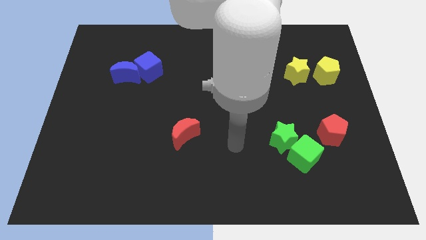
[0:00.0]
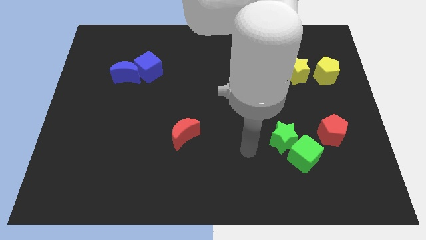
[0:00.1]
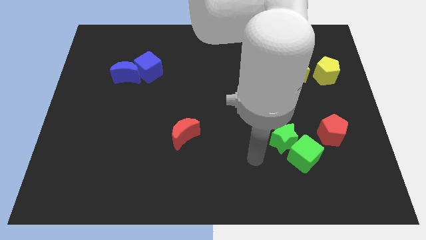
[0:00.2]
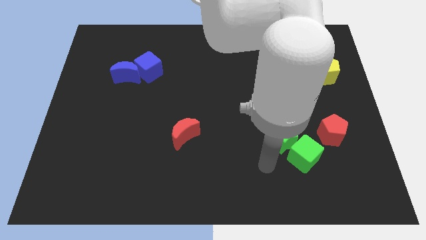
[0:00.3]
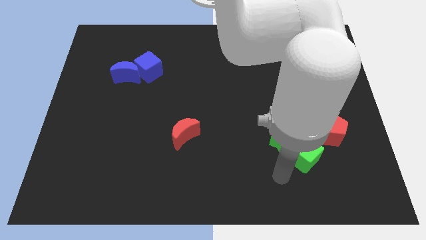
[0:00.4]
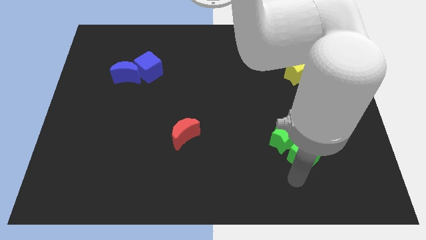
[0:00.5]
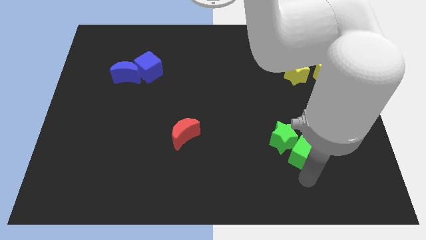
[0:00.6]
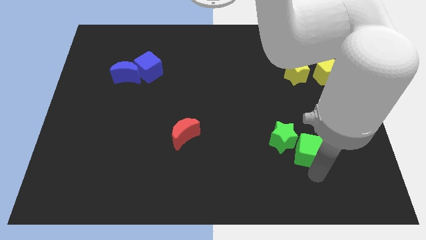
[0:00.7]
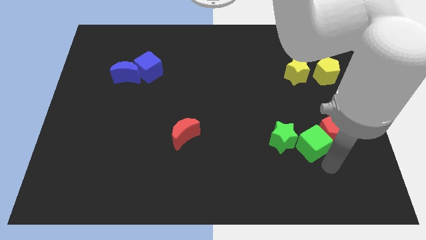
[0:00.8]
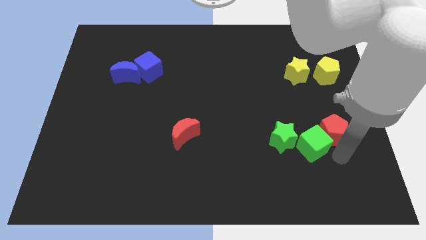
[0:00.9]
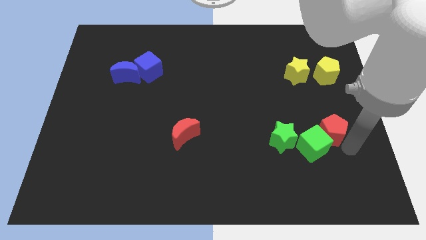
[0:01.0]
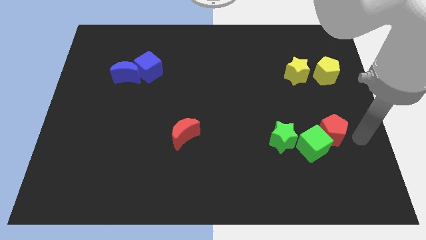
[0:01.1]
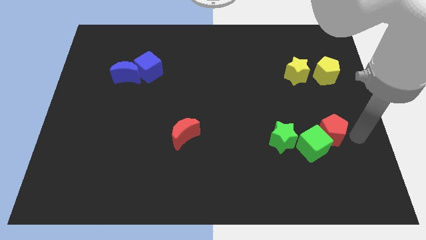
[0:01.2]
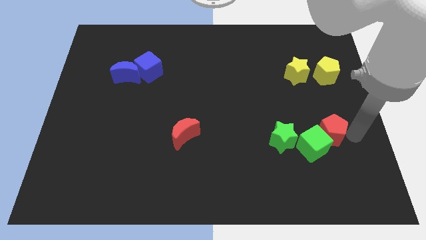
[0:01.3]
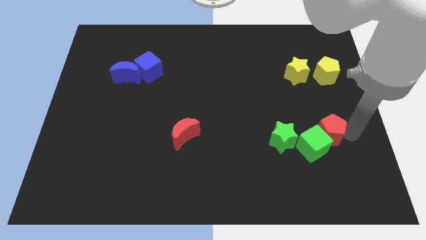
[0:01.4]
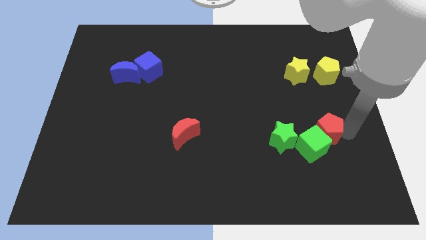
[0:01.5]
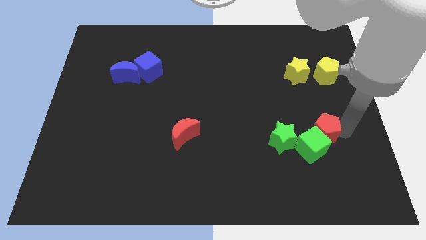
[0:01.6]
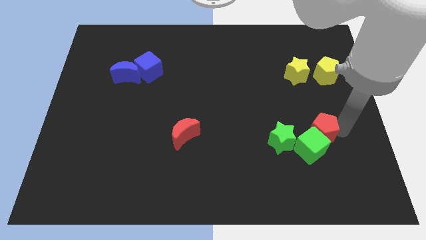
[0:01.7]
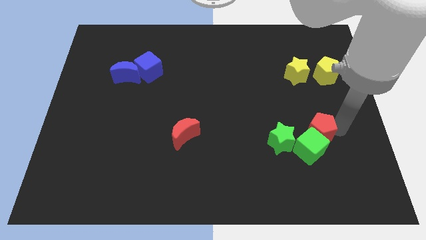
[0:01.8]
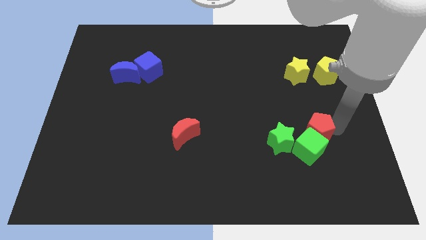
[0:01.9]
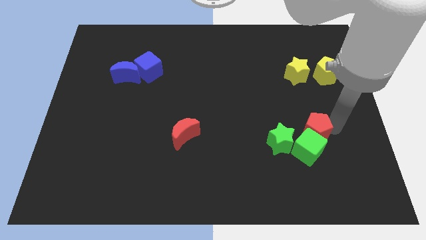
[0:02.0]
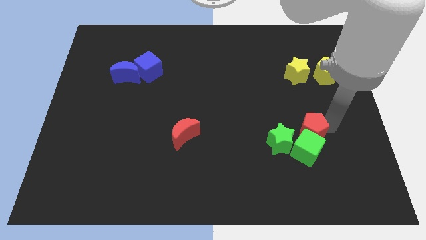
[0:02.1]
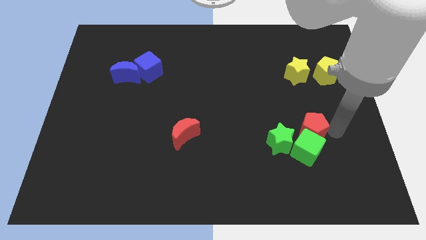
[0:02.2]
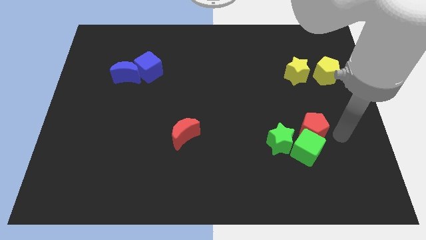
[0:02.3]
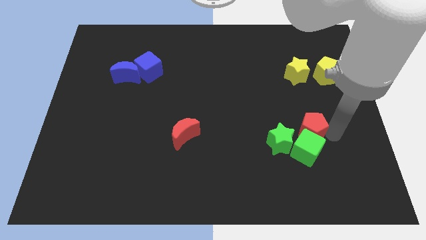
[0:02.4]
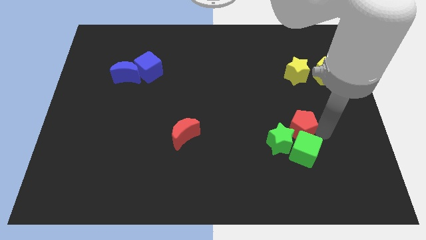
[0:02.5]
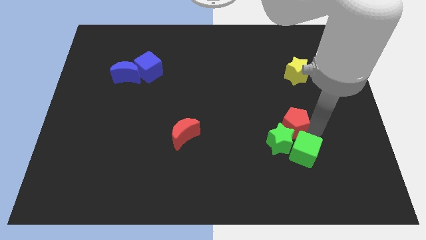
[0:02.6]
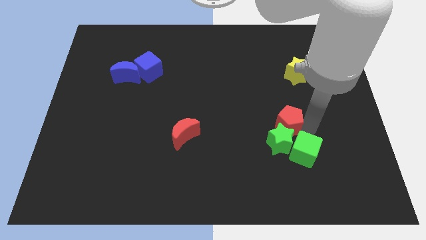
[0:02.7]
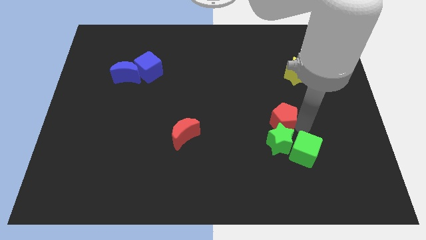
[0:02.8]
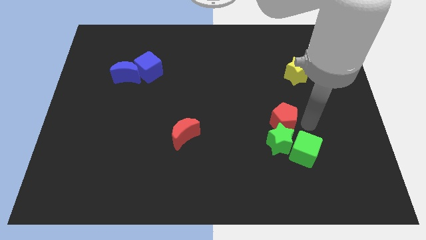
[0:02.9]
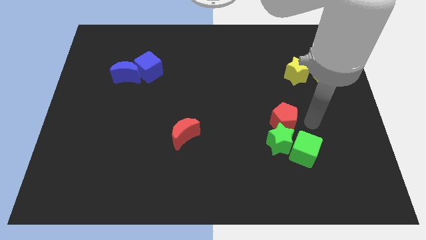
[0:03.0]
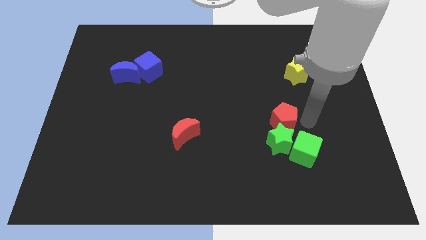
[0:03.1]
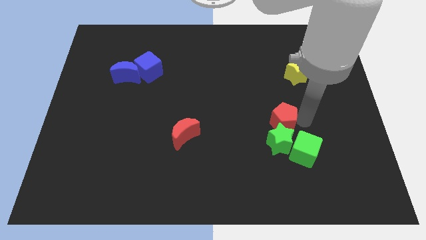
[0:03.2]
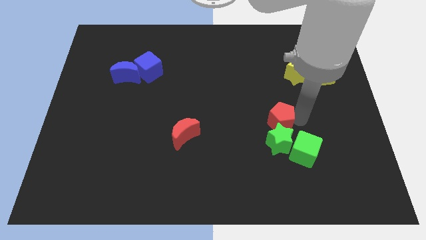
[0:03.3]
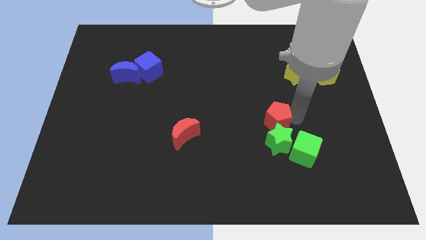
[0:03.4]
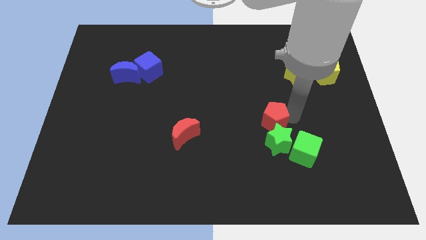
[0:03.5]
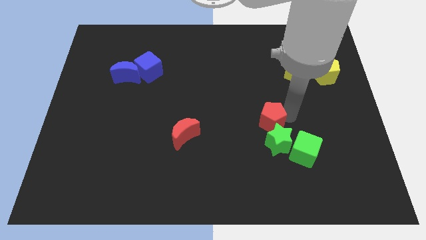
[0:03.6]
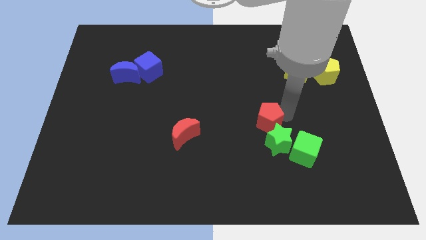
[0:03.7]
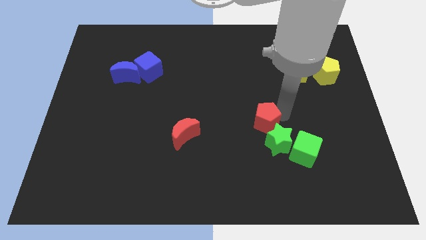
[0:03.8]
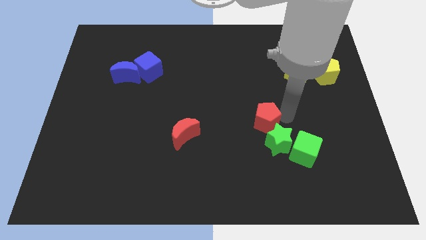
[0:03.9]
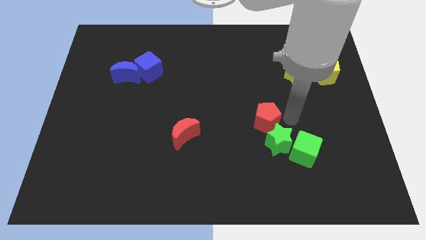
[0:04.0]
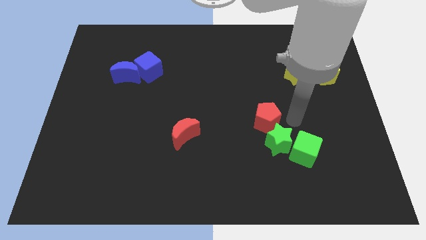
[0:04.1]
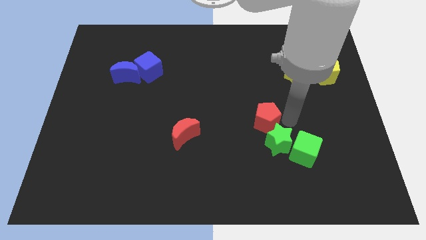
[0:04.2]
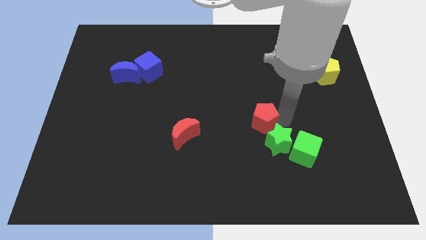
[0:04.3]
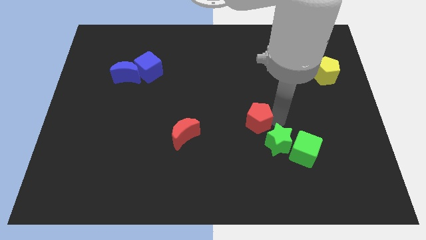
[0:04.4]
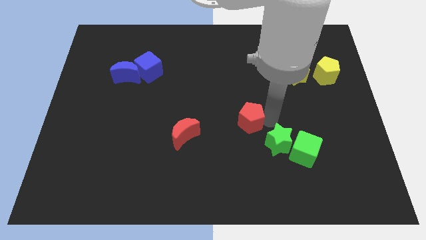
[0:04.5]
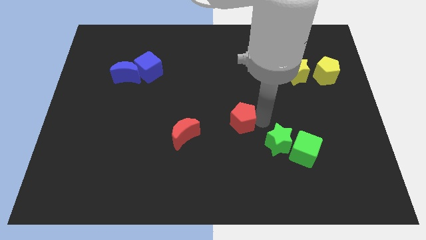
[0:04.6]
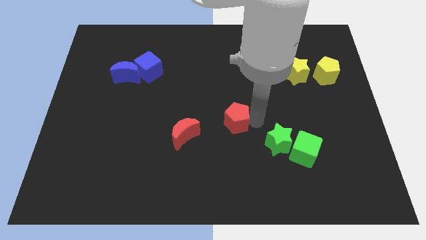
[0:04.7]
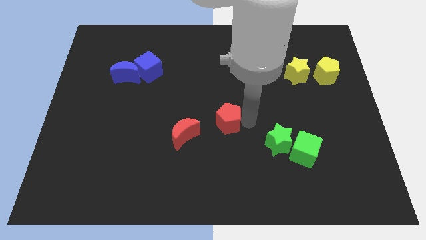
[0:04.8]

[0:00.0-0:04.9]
move the red pentagon diagonally up and to the right of the red moon

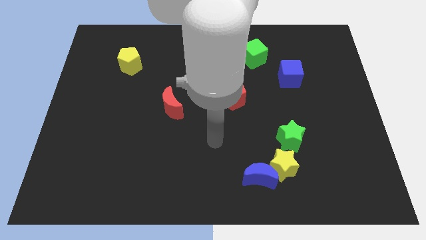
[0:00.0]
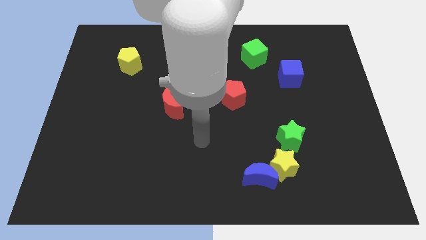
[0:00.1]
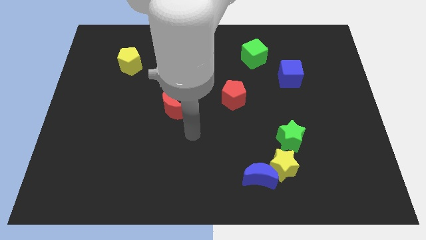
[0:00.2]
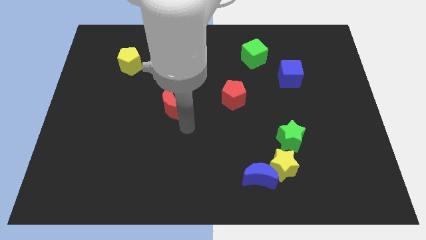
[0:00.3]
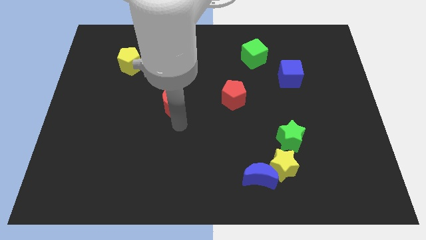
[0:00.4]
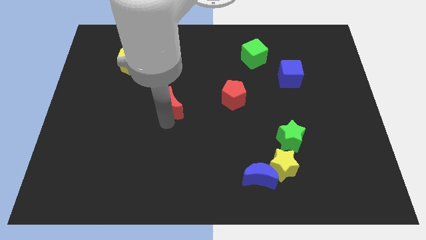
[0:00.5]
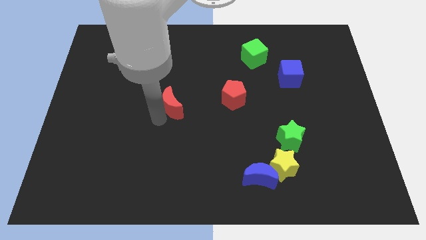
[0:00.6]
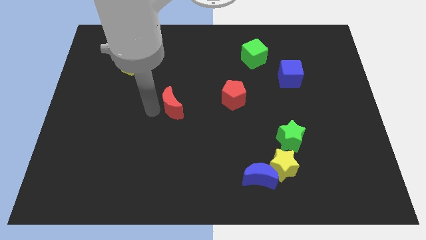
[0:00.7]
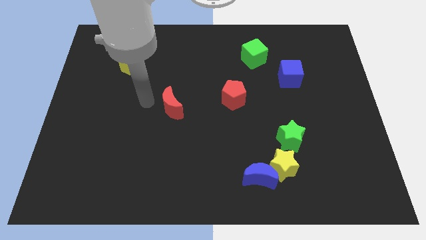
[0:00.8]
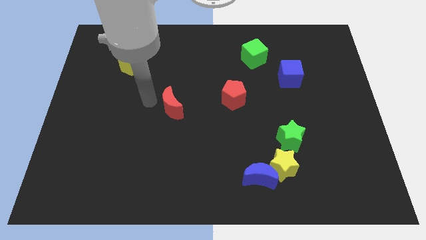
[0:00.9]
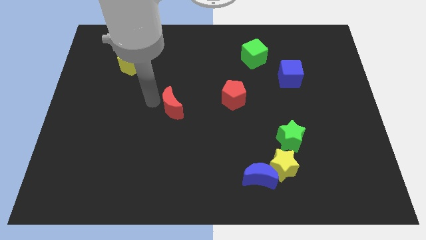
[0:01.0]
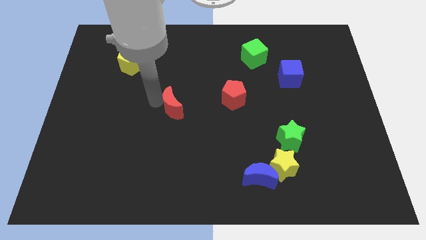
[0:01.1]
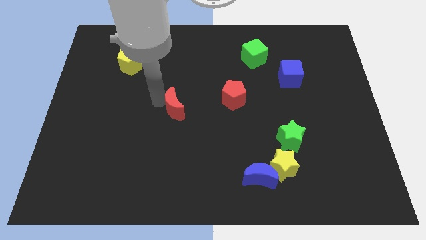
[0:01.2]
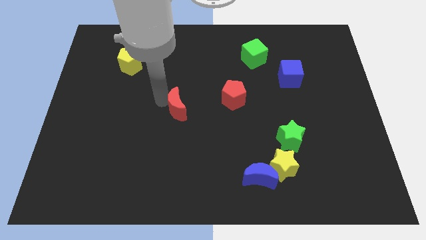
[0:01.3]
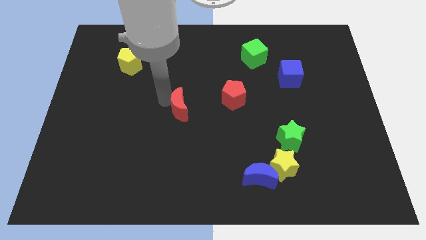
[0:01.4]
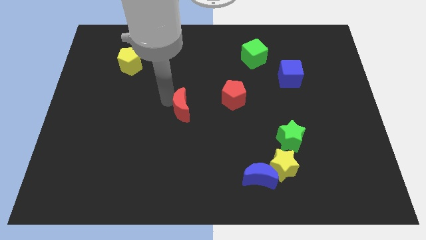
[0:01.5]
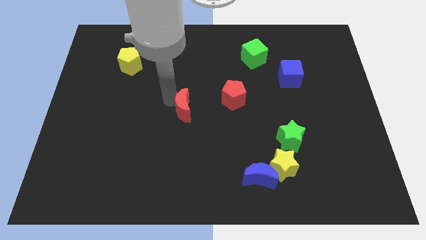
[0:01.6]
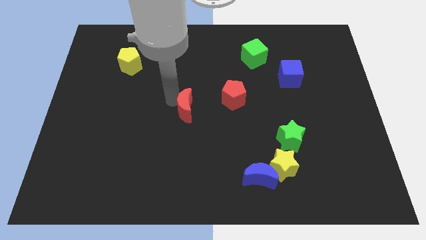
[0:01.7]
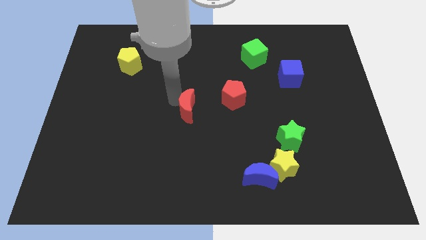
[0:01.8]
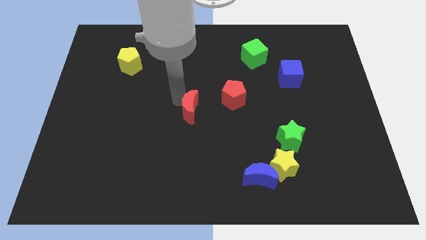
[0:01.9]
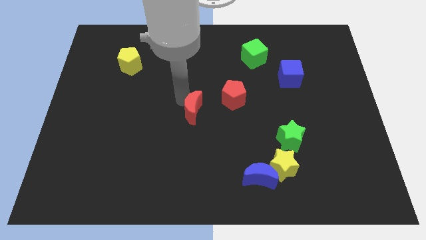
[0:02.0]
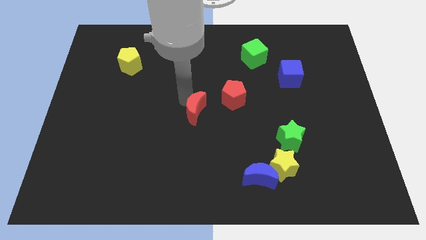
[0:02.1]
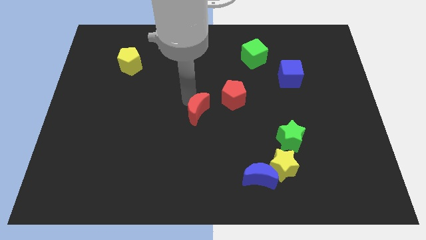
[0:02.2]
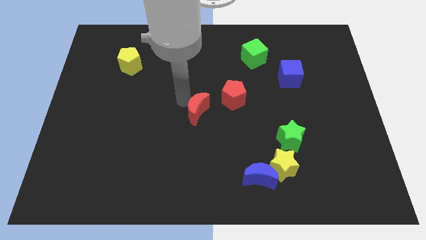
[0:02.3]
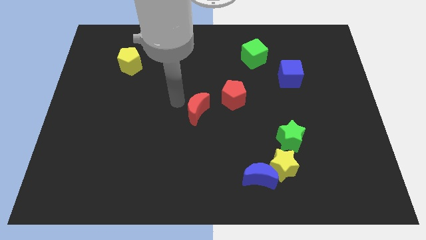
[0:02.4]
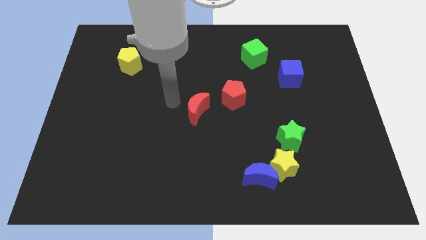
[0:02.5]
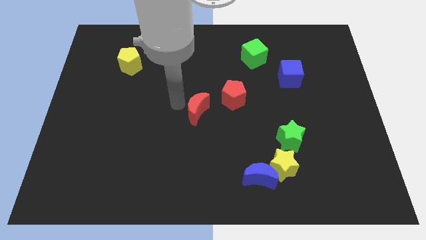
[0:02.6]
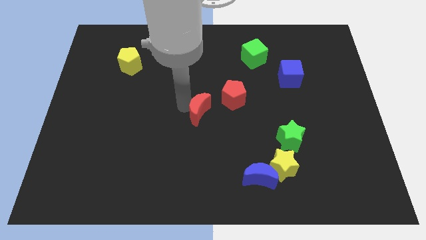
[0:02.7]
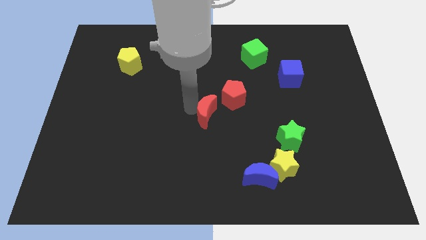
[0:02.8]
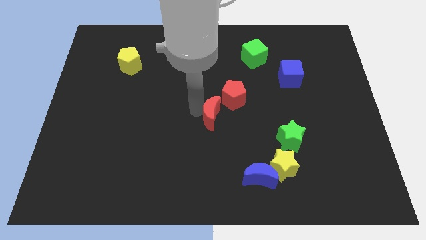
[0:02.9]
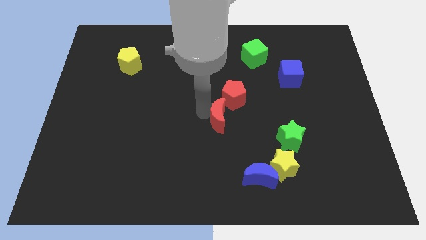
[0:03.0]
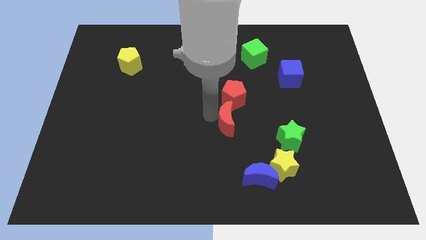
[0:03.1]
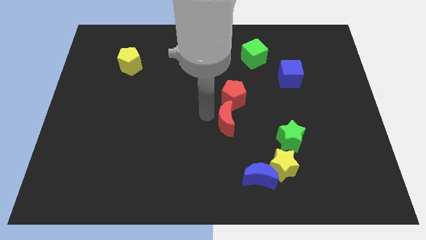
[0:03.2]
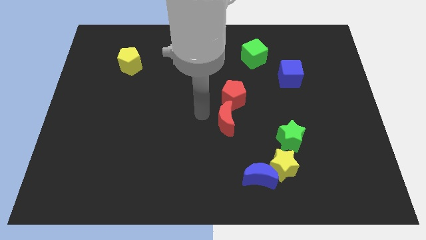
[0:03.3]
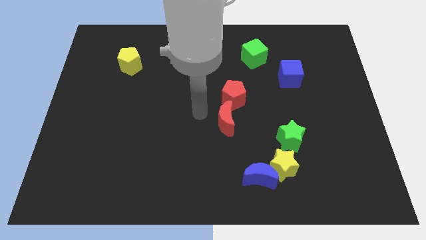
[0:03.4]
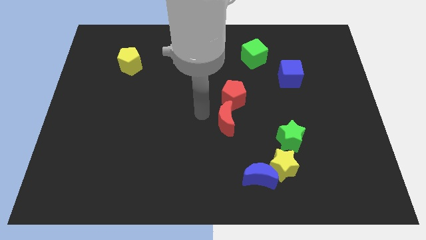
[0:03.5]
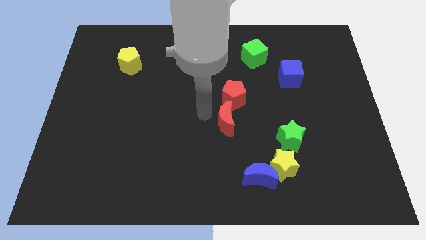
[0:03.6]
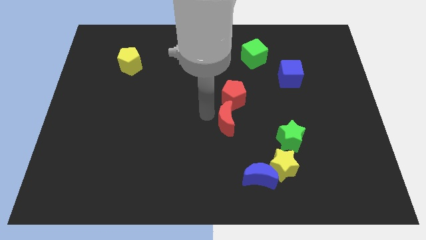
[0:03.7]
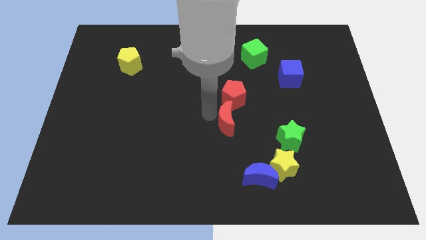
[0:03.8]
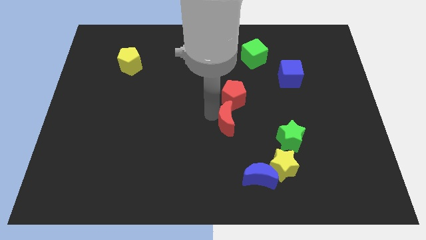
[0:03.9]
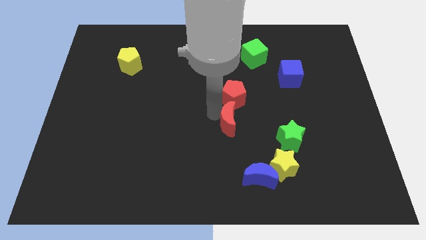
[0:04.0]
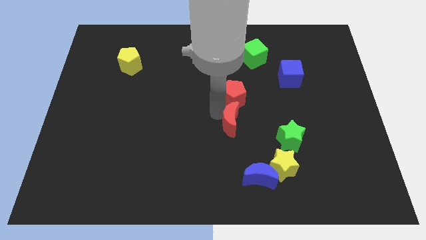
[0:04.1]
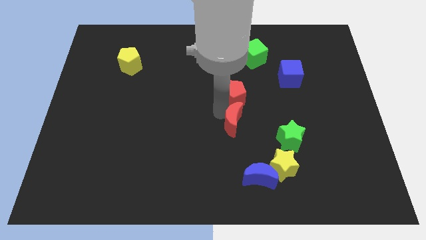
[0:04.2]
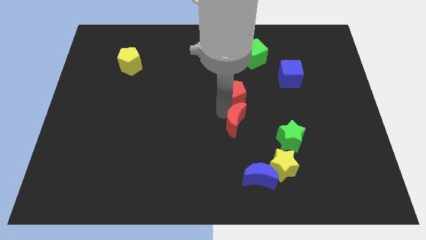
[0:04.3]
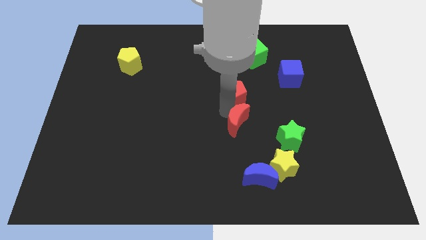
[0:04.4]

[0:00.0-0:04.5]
put the red moon above the blue moon
